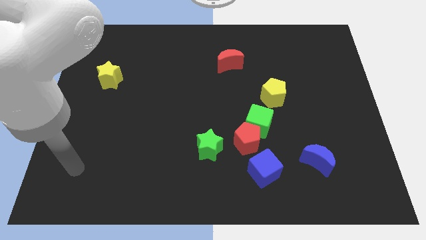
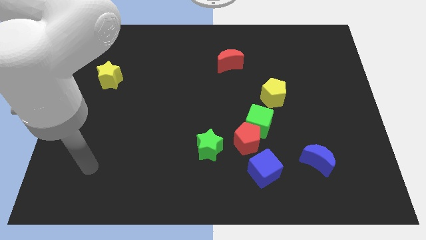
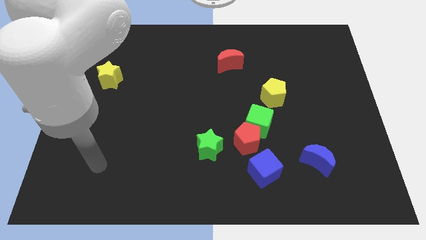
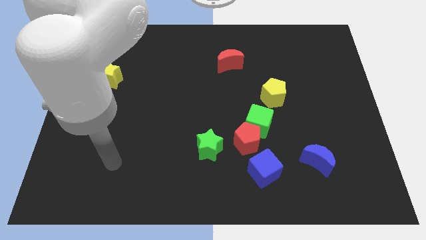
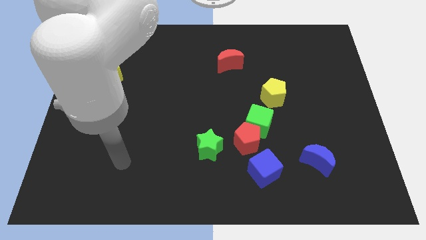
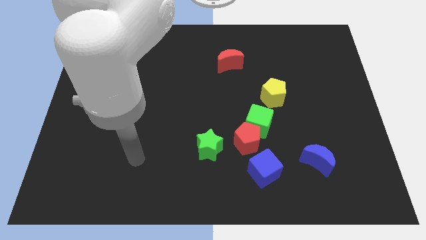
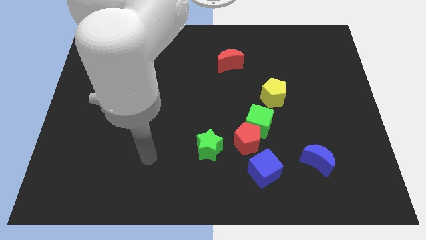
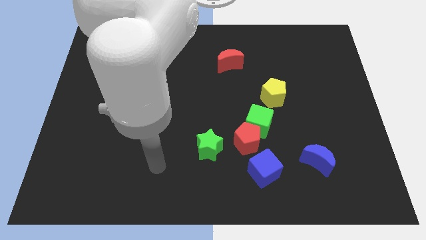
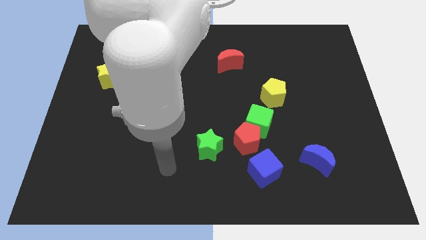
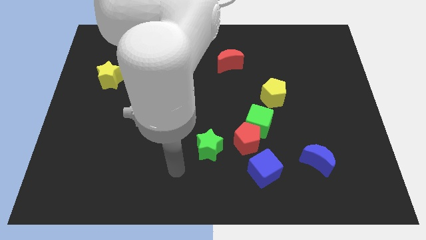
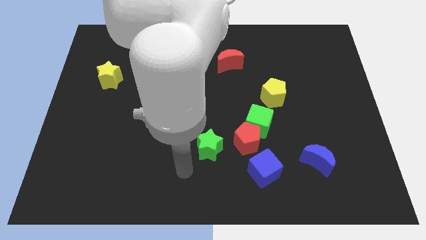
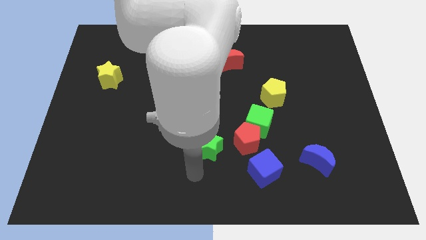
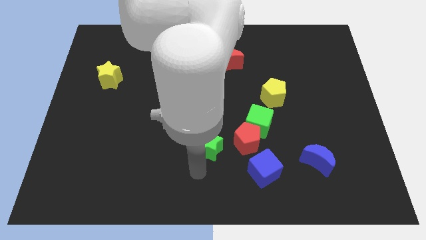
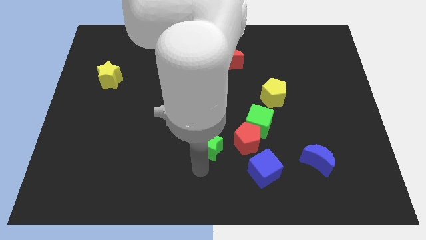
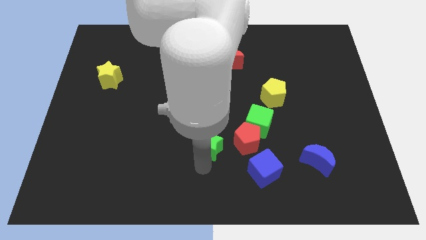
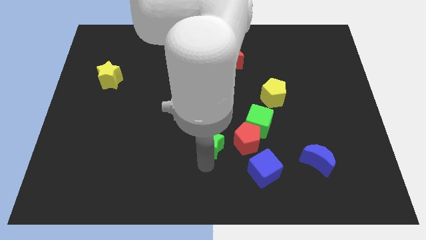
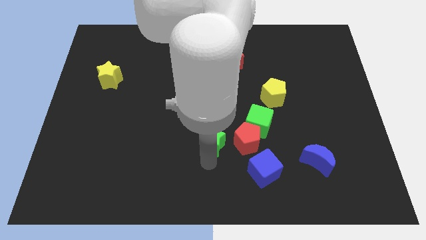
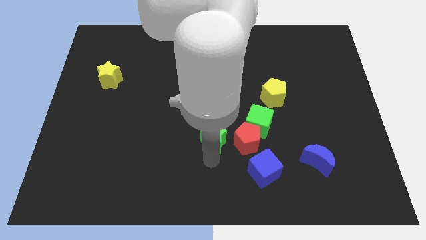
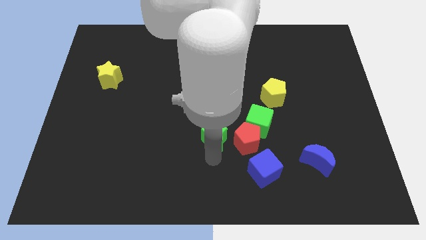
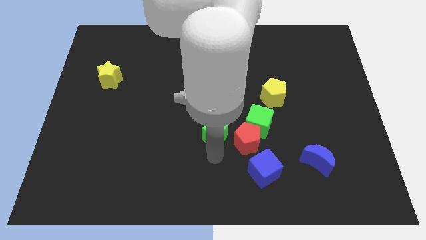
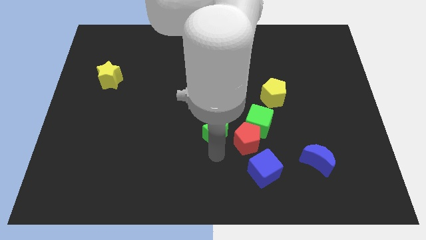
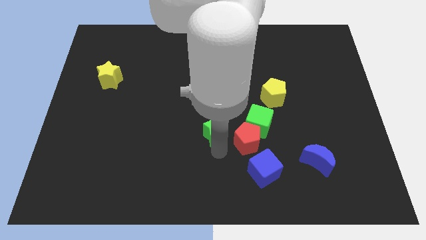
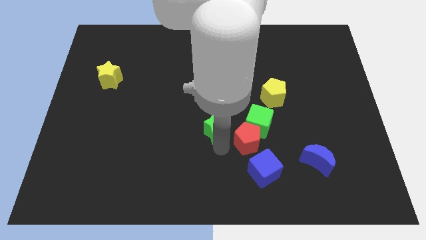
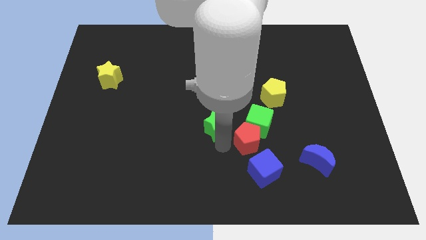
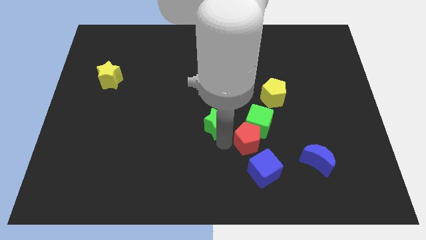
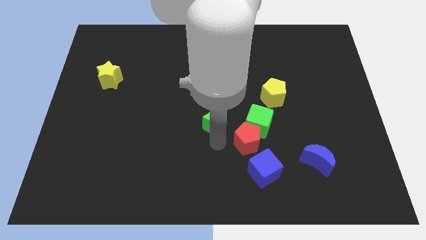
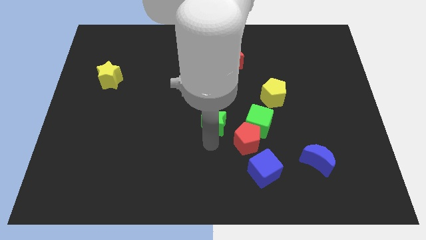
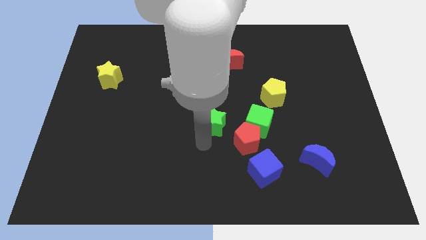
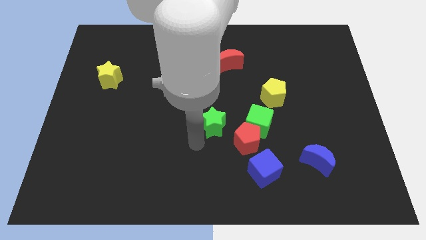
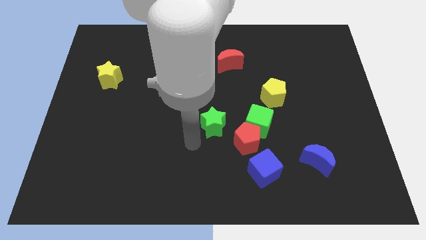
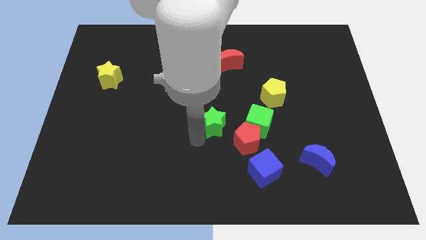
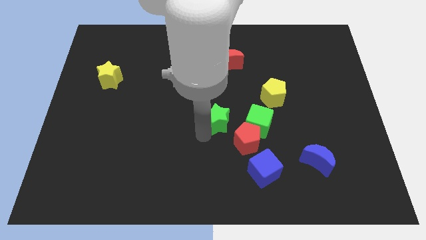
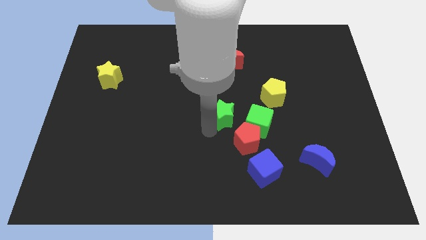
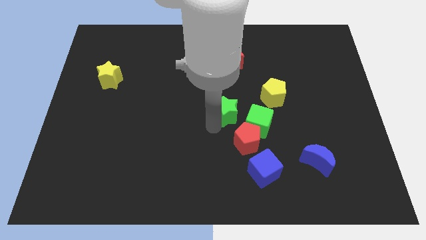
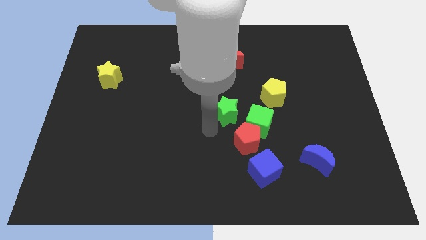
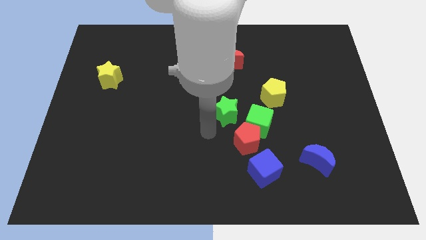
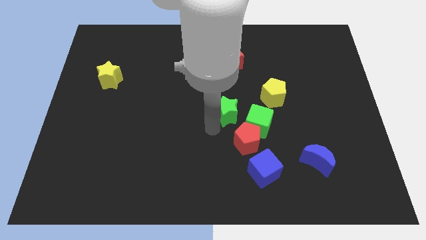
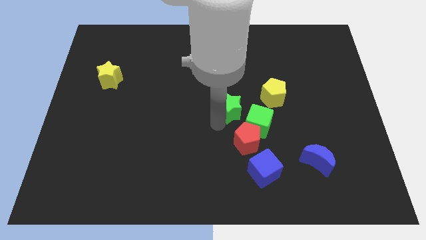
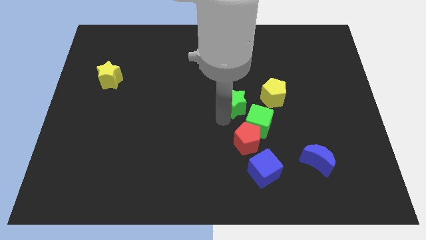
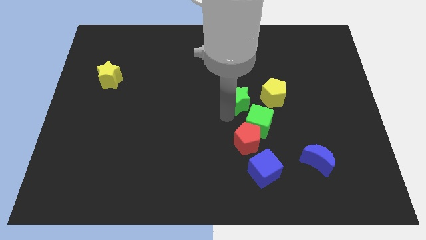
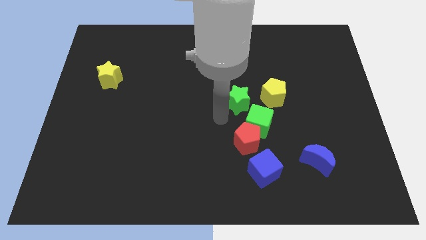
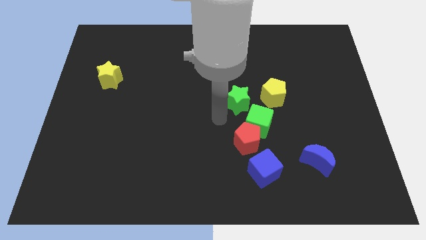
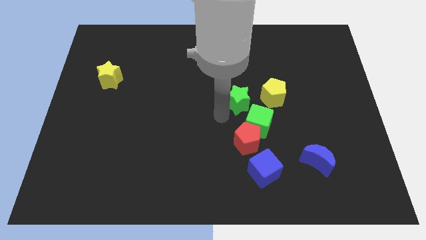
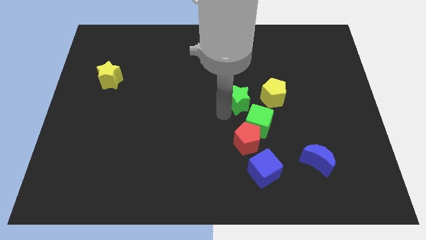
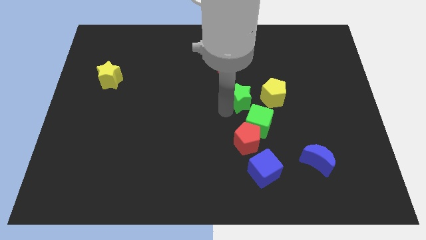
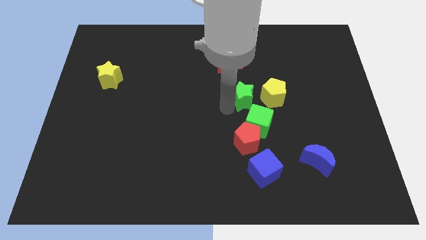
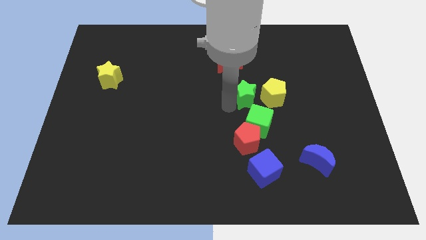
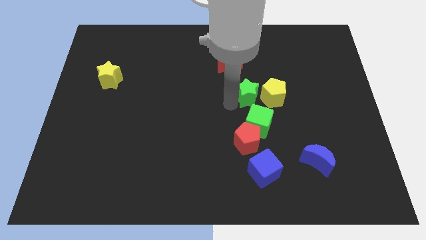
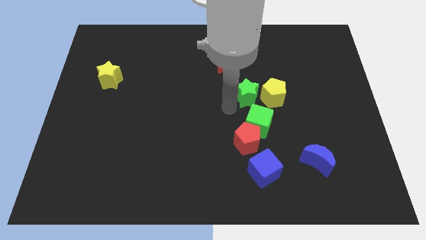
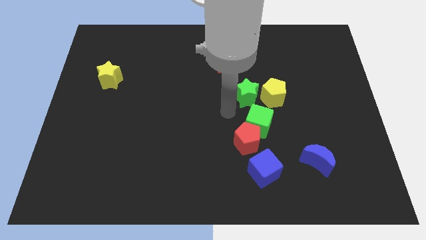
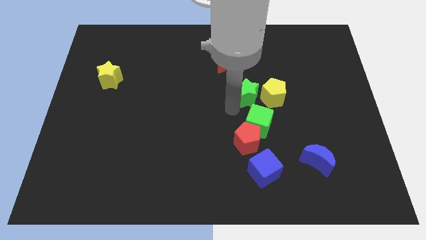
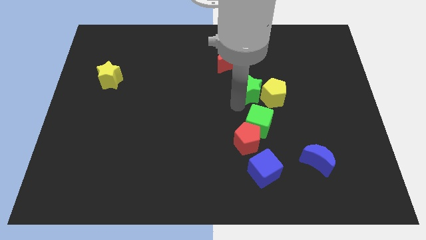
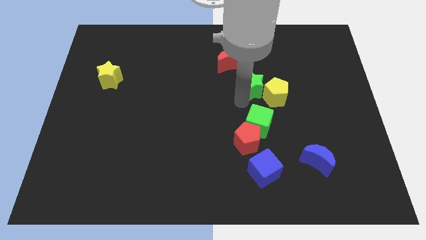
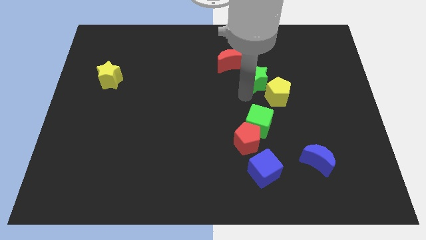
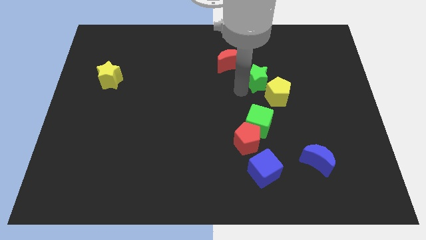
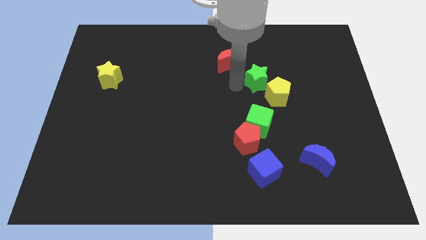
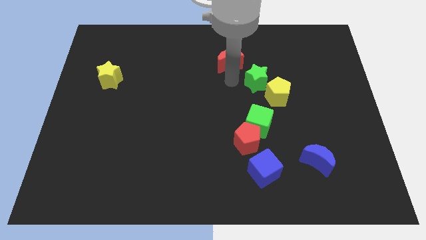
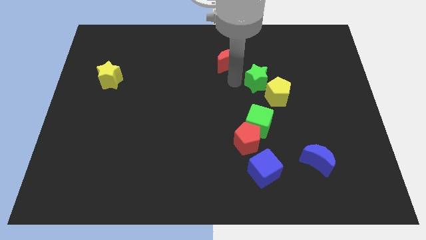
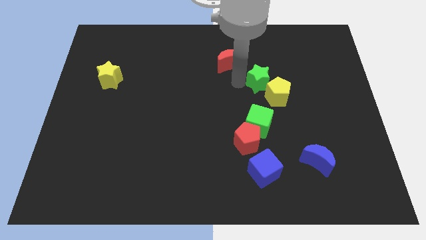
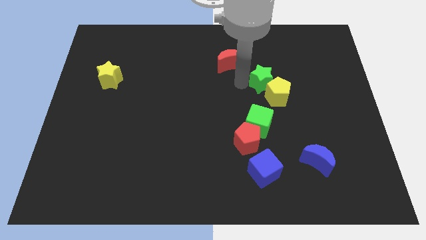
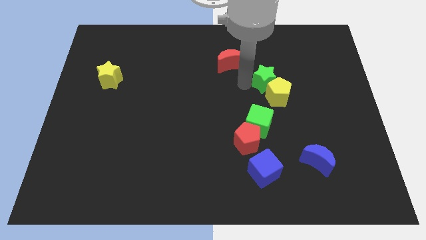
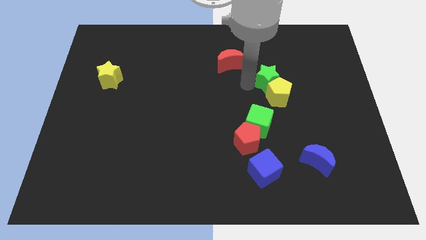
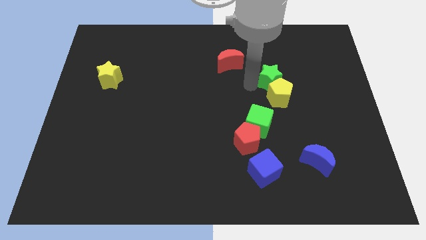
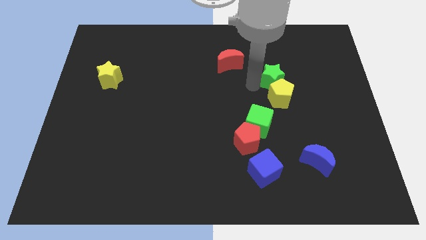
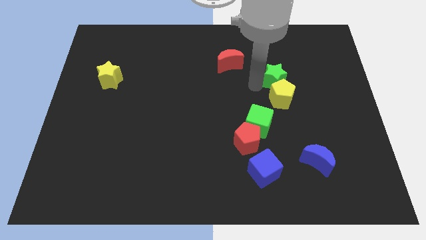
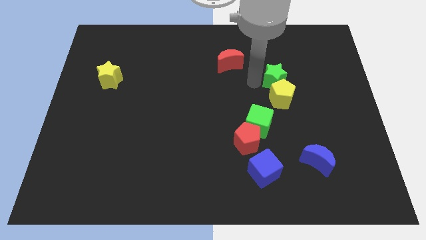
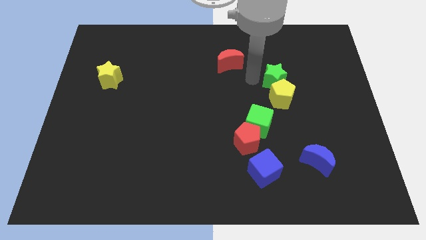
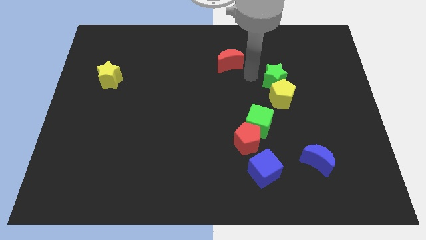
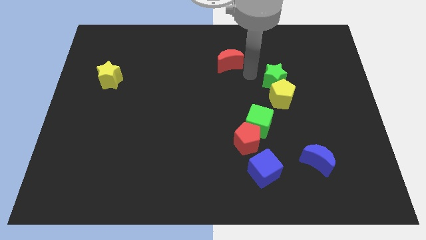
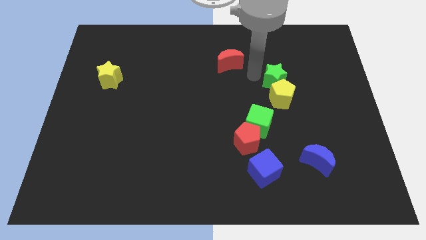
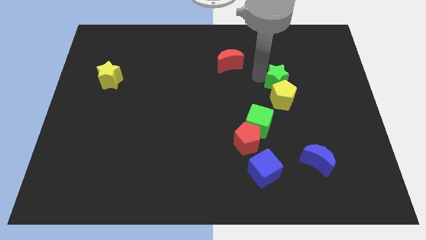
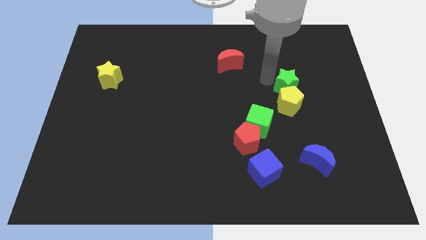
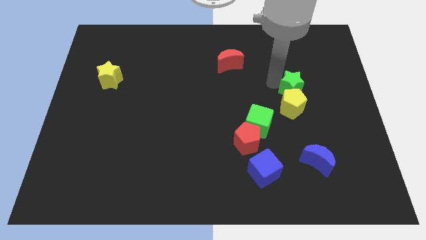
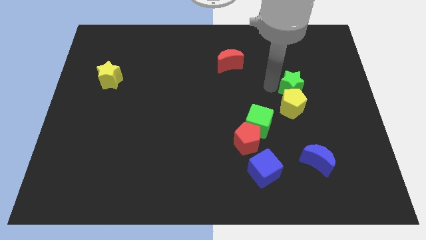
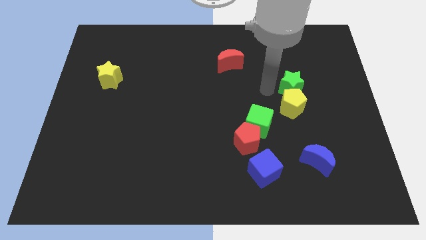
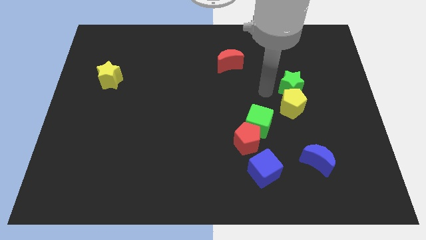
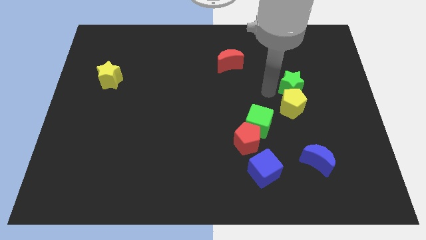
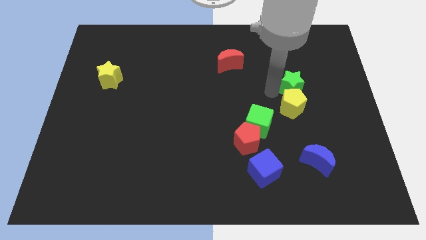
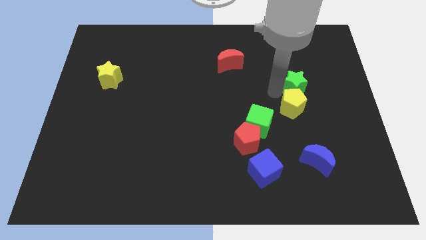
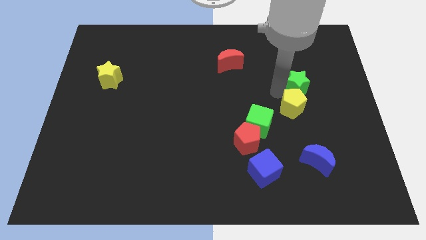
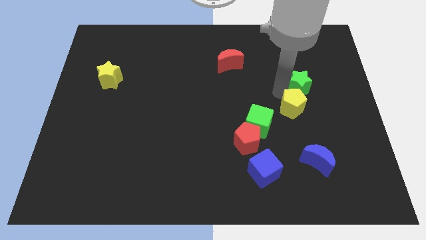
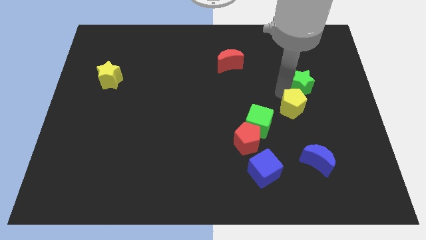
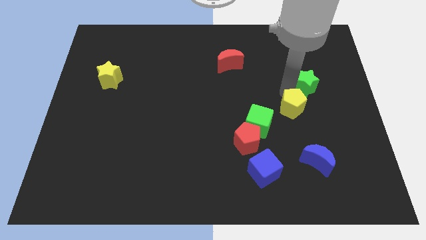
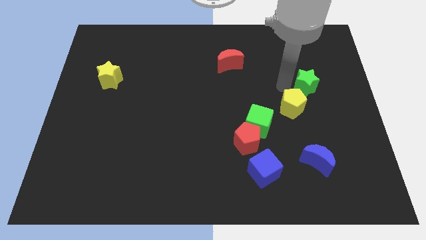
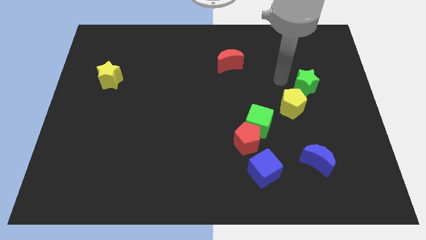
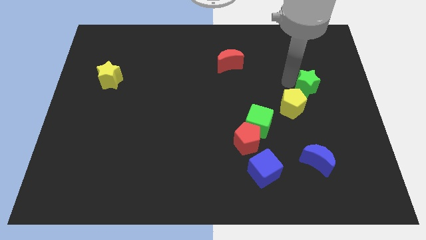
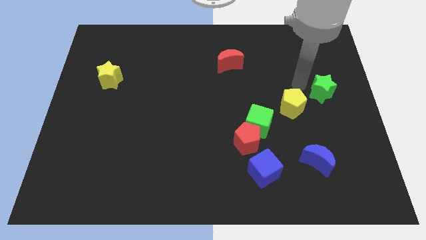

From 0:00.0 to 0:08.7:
put the green star to the right side of the board
